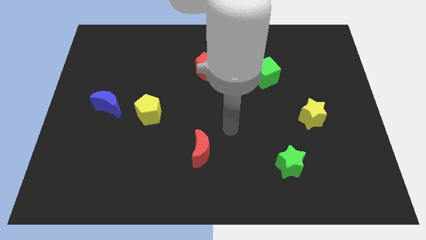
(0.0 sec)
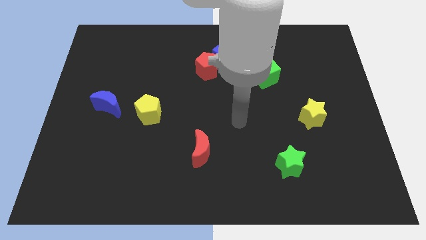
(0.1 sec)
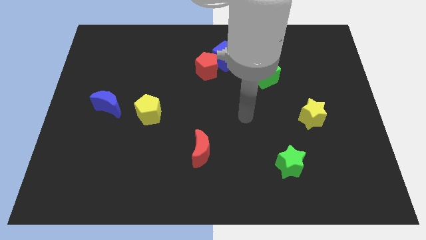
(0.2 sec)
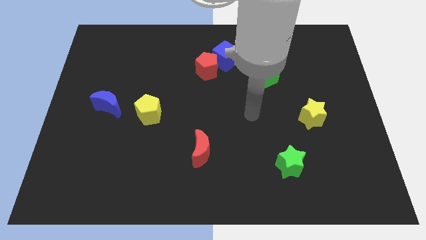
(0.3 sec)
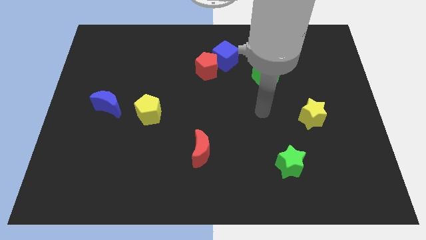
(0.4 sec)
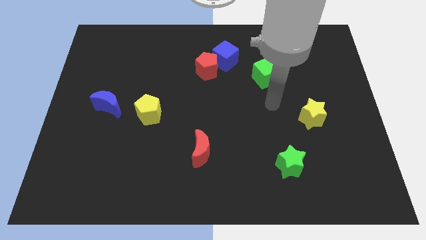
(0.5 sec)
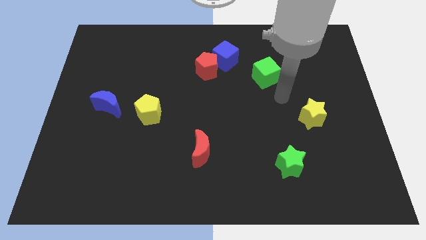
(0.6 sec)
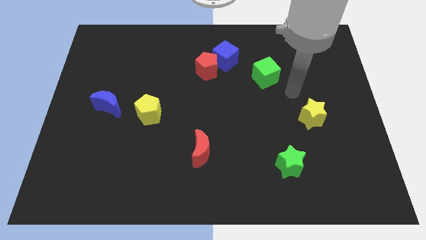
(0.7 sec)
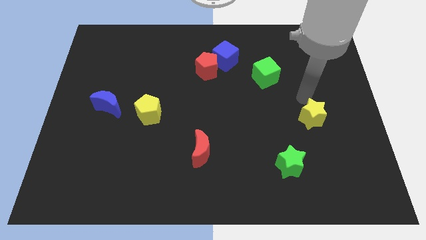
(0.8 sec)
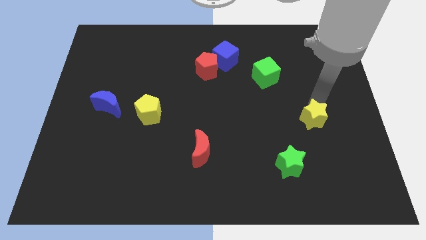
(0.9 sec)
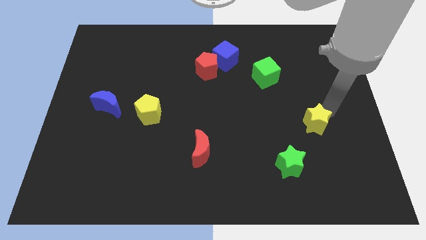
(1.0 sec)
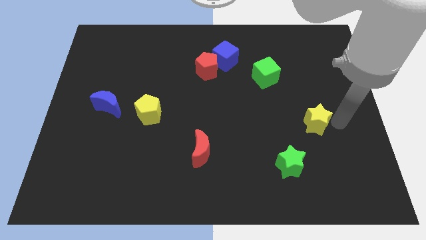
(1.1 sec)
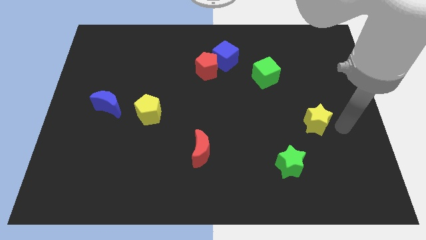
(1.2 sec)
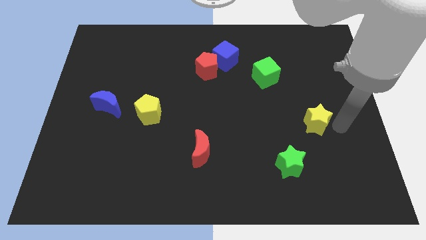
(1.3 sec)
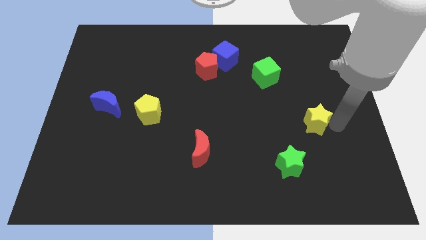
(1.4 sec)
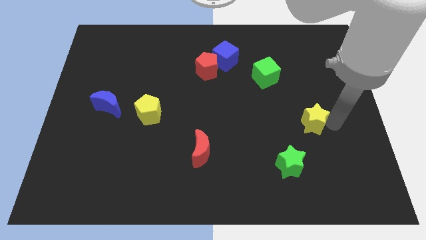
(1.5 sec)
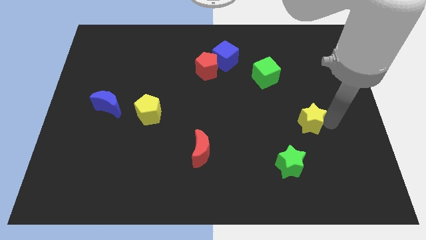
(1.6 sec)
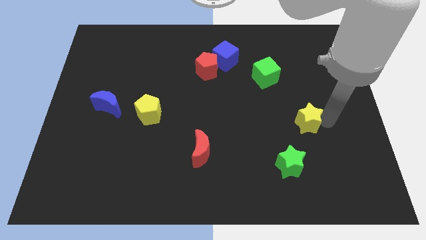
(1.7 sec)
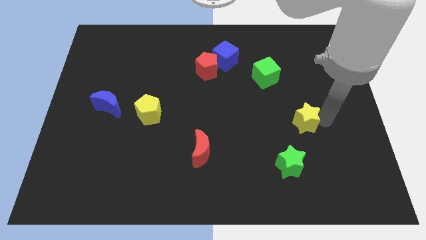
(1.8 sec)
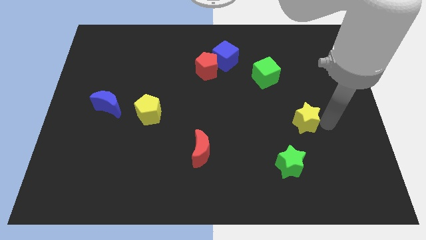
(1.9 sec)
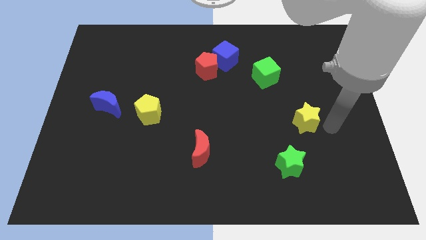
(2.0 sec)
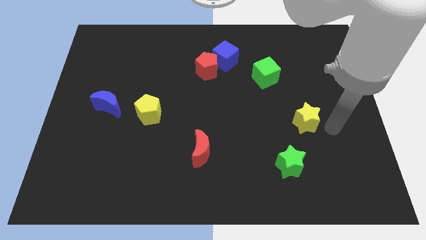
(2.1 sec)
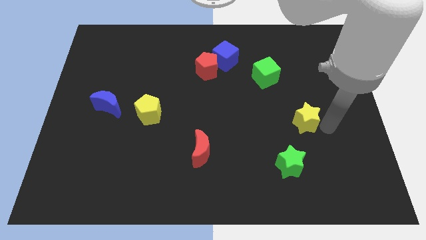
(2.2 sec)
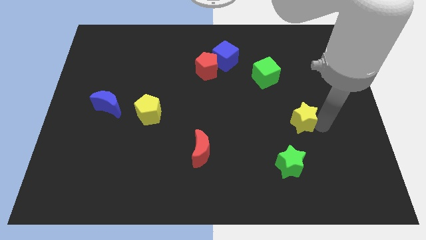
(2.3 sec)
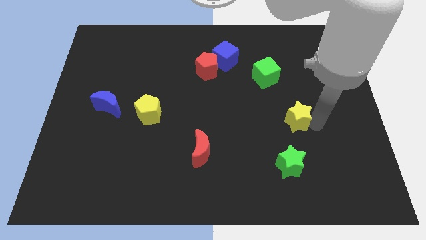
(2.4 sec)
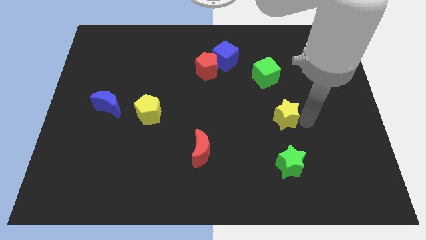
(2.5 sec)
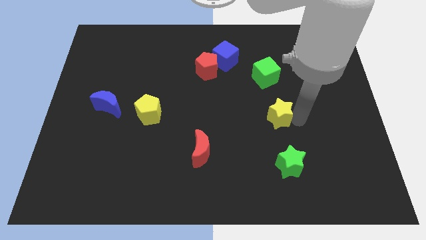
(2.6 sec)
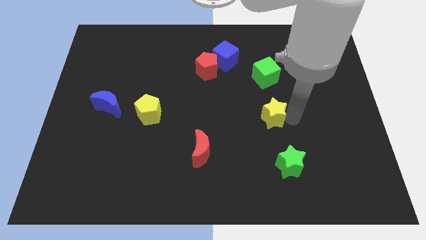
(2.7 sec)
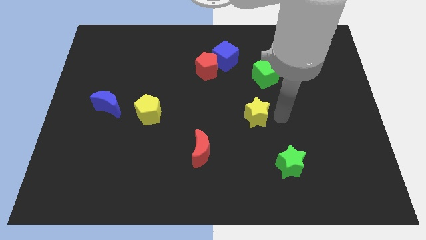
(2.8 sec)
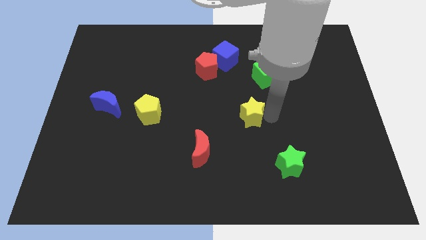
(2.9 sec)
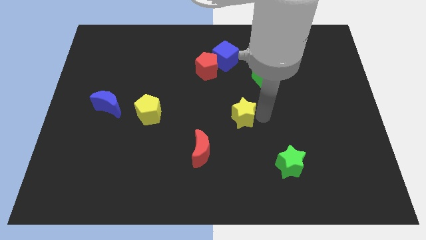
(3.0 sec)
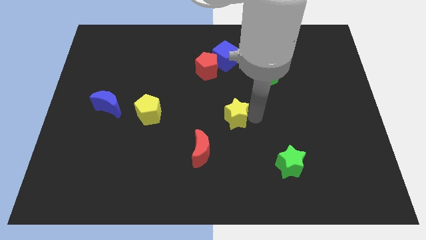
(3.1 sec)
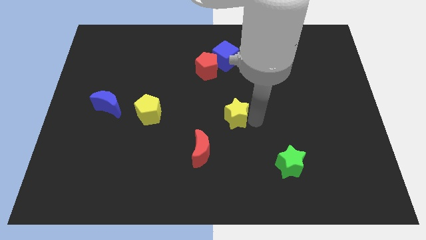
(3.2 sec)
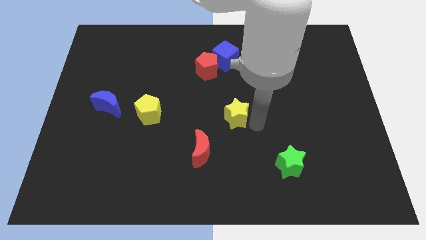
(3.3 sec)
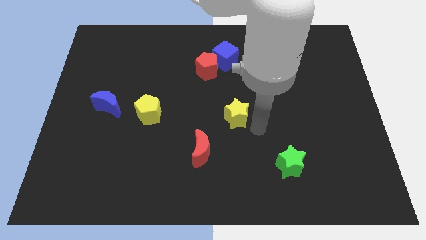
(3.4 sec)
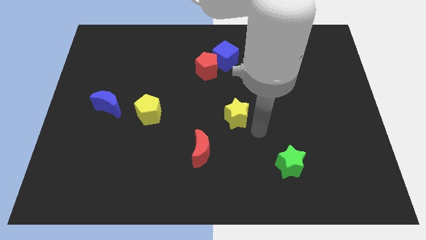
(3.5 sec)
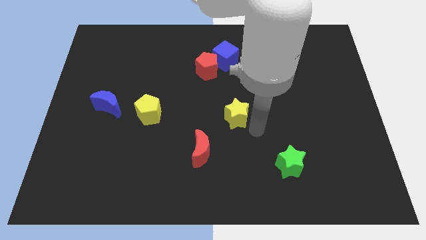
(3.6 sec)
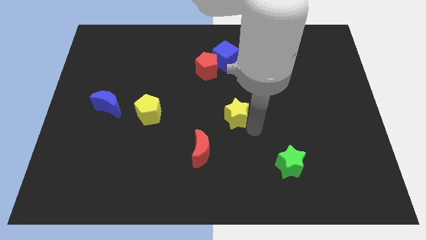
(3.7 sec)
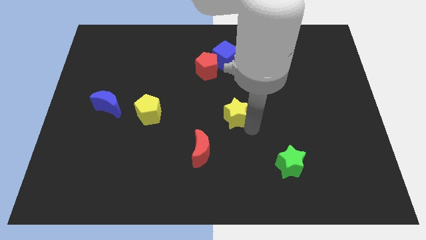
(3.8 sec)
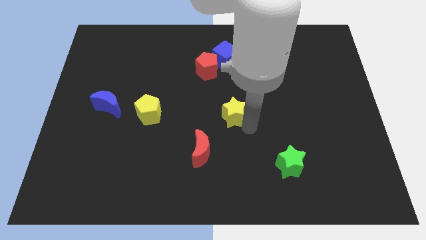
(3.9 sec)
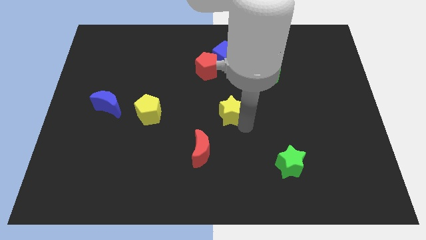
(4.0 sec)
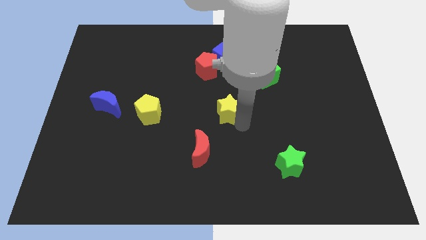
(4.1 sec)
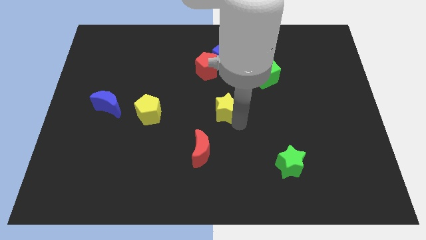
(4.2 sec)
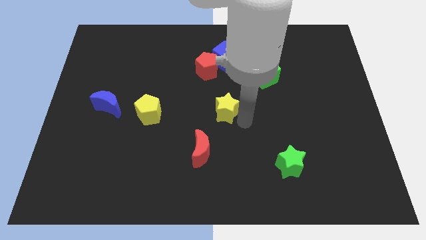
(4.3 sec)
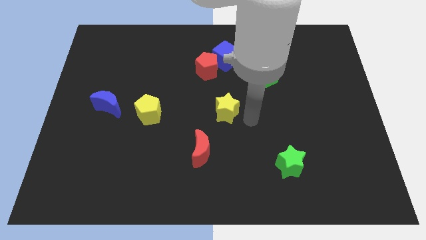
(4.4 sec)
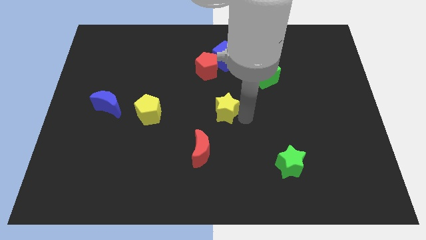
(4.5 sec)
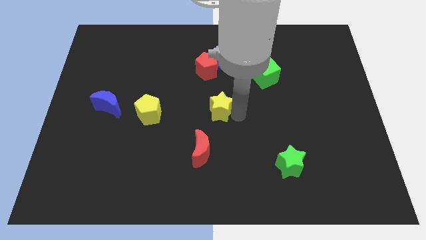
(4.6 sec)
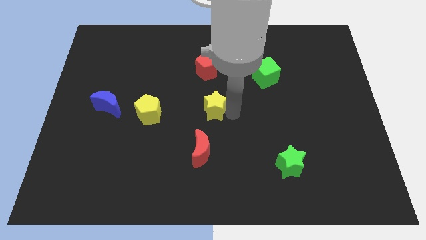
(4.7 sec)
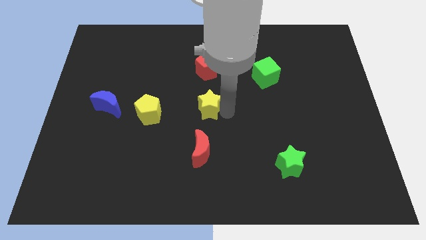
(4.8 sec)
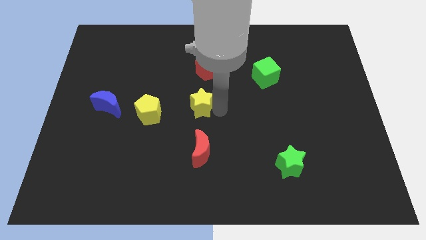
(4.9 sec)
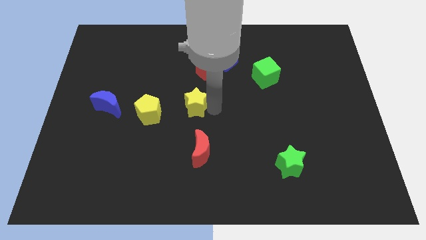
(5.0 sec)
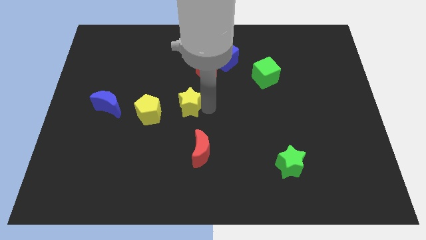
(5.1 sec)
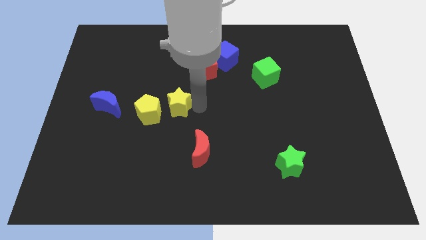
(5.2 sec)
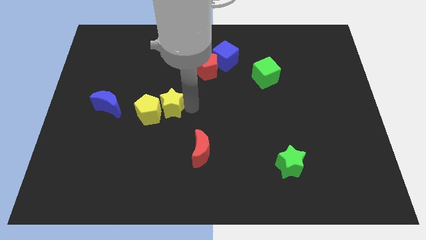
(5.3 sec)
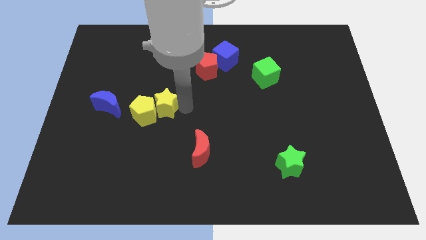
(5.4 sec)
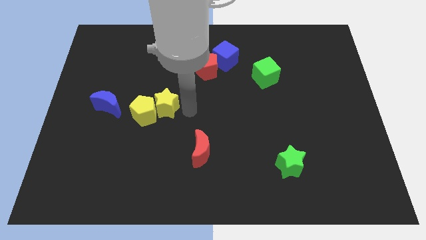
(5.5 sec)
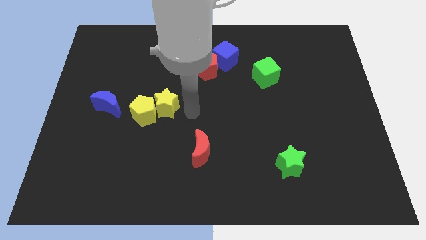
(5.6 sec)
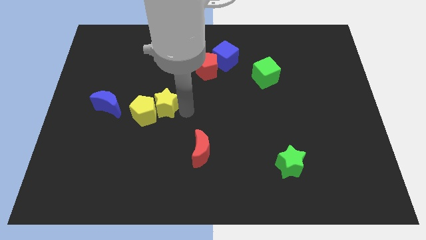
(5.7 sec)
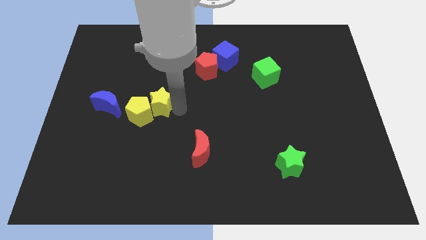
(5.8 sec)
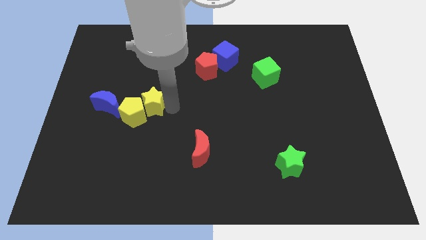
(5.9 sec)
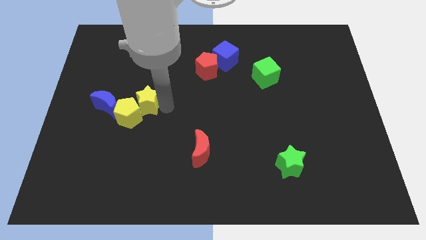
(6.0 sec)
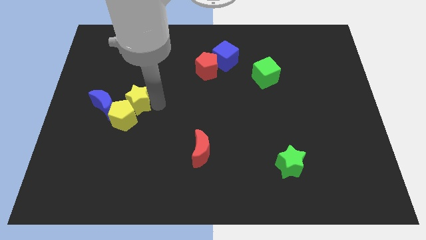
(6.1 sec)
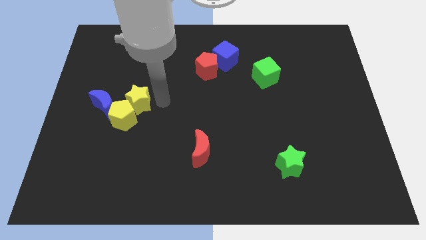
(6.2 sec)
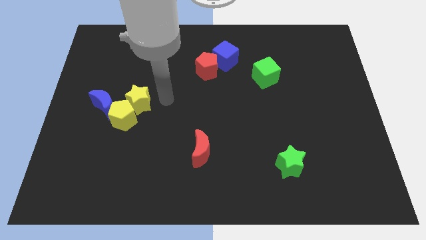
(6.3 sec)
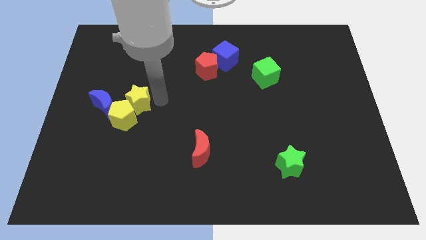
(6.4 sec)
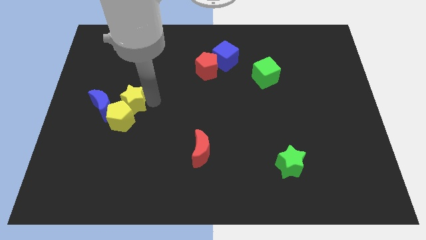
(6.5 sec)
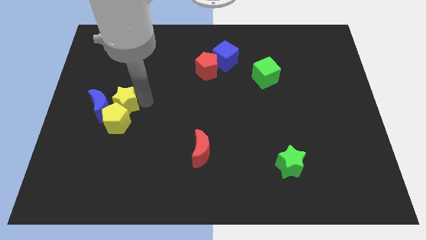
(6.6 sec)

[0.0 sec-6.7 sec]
push the yellow star close to the blue moon
